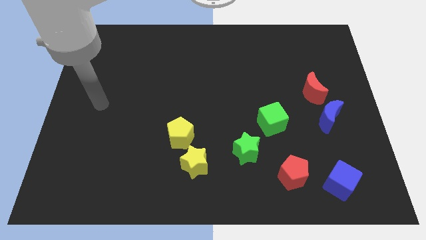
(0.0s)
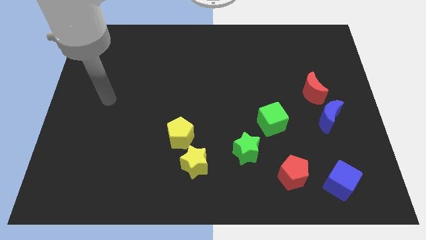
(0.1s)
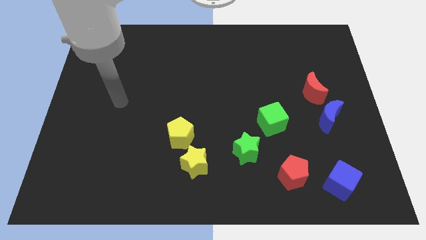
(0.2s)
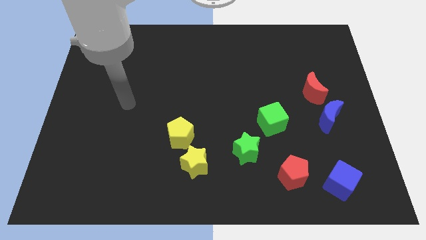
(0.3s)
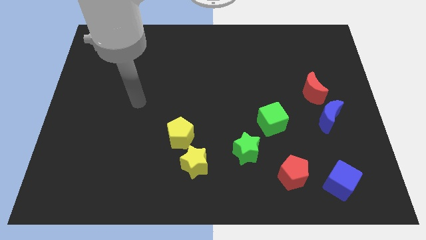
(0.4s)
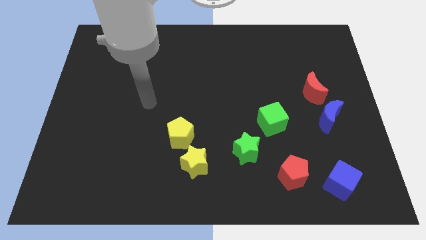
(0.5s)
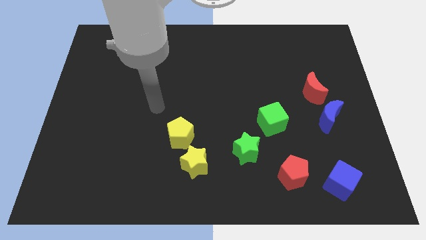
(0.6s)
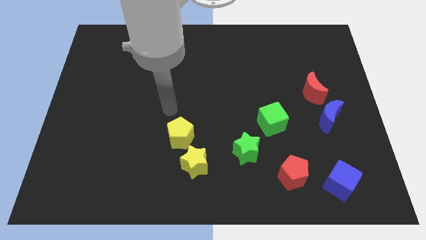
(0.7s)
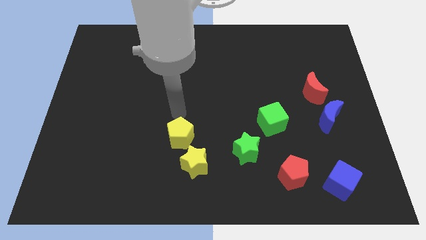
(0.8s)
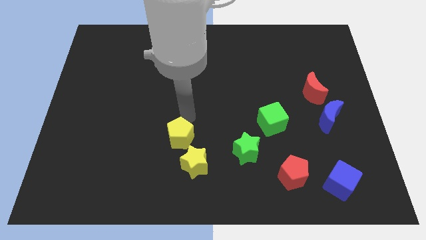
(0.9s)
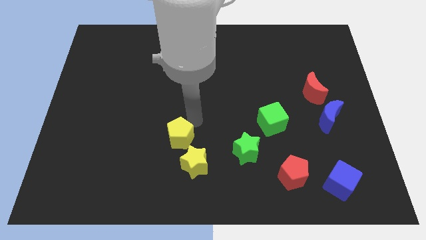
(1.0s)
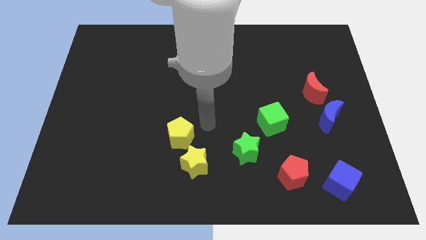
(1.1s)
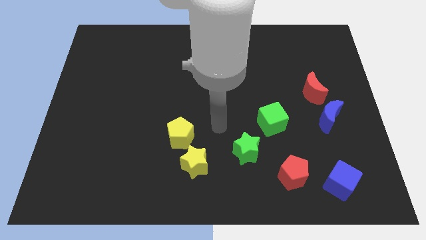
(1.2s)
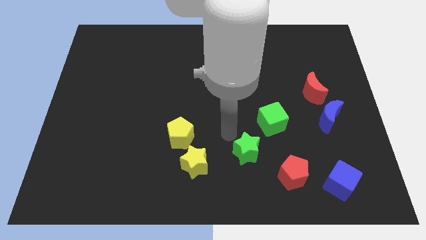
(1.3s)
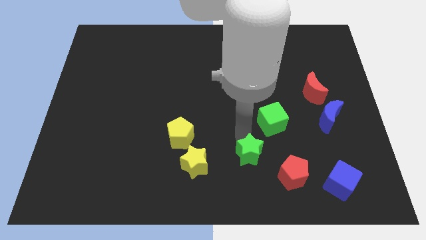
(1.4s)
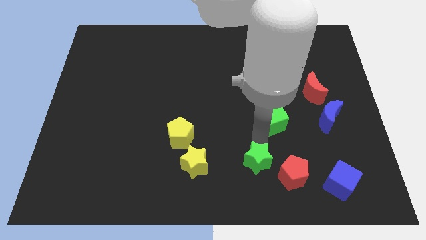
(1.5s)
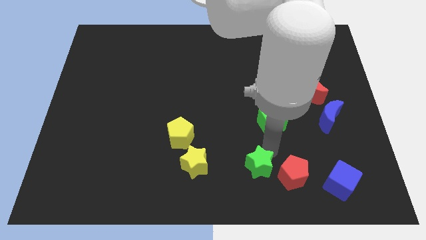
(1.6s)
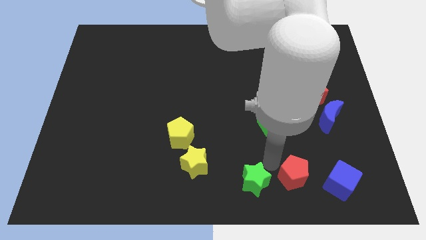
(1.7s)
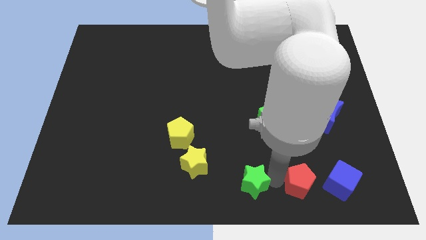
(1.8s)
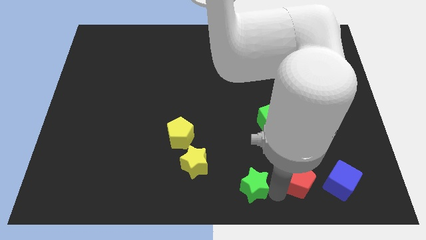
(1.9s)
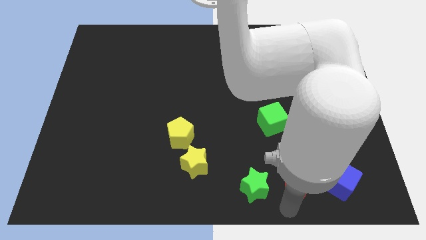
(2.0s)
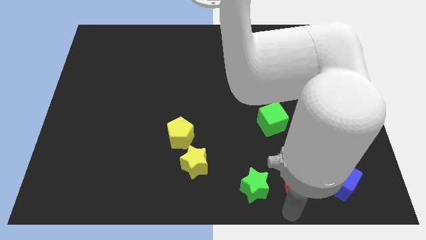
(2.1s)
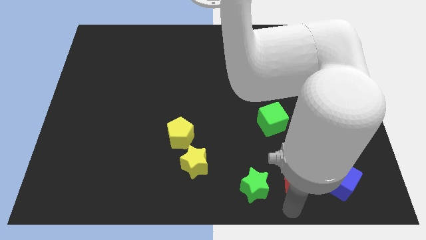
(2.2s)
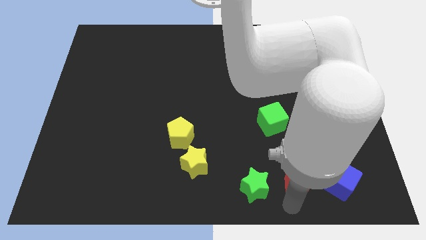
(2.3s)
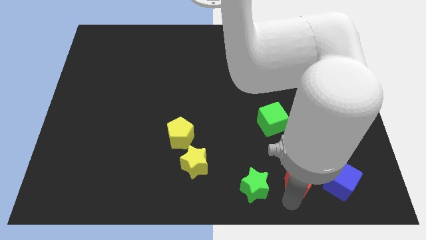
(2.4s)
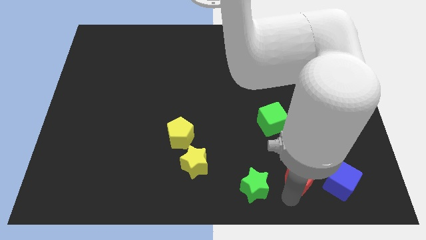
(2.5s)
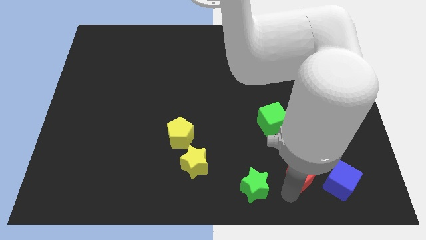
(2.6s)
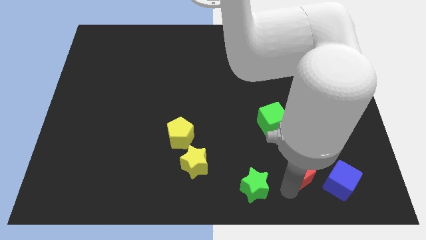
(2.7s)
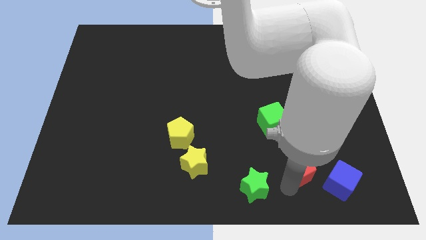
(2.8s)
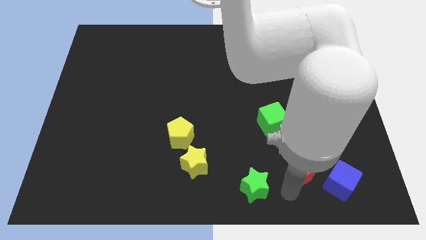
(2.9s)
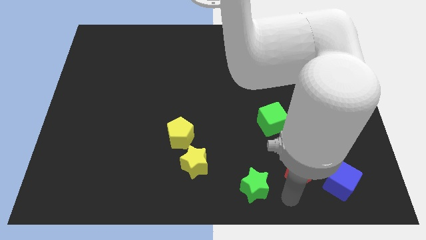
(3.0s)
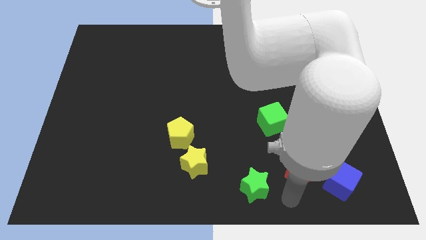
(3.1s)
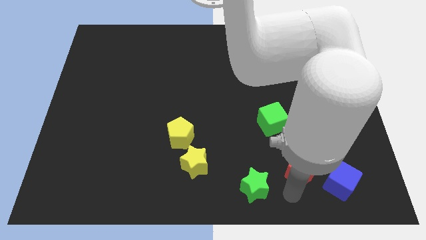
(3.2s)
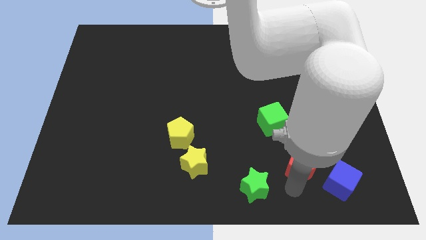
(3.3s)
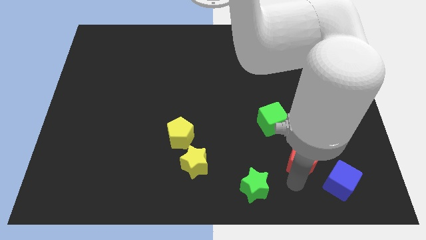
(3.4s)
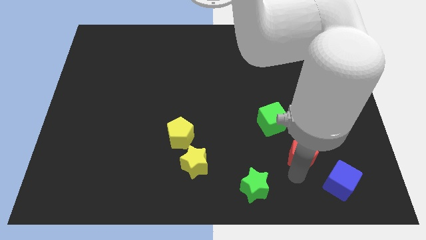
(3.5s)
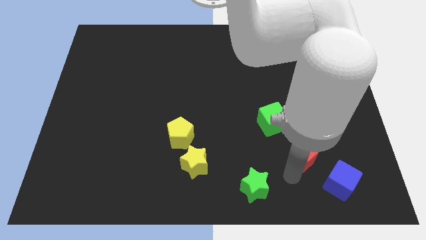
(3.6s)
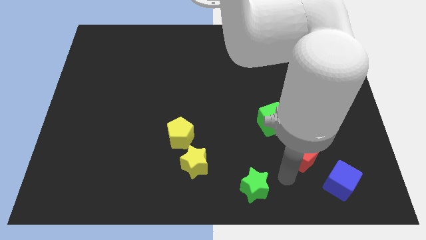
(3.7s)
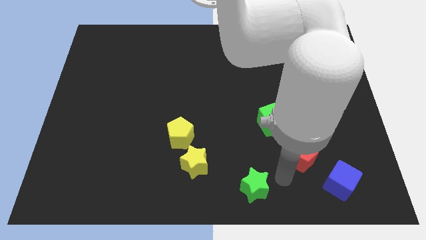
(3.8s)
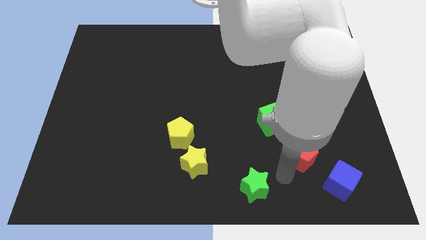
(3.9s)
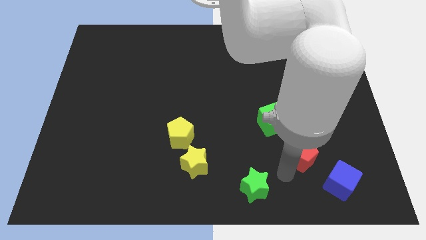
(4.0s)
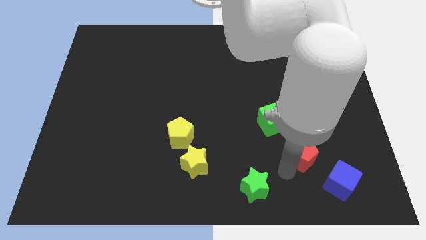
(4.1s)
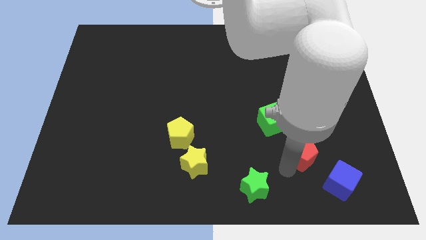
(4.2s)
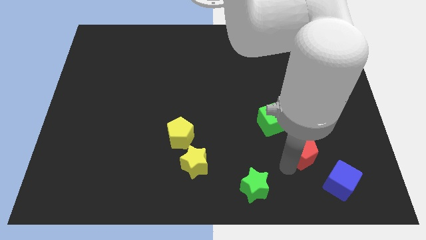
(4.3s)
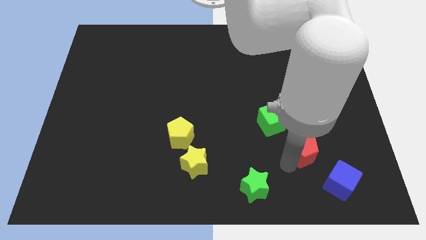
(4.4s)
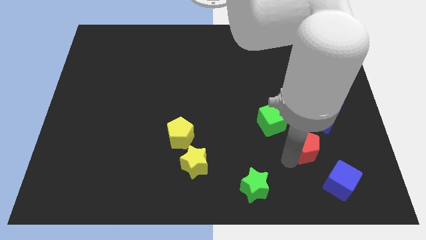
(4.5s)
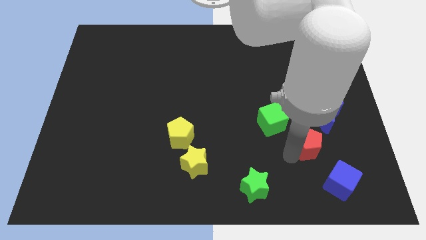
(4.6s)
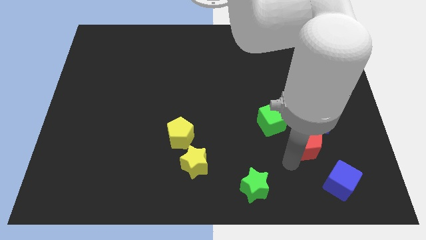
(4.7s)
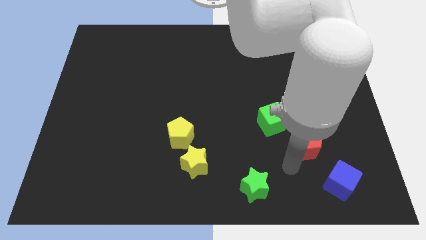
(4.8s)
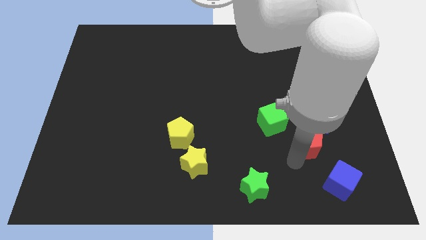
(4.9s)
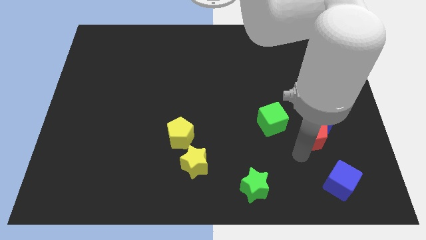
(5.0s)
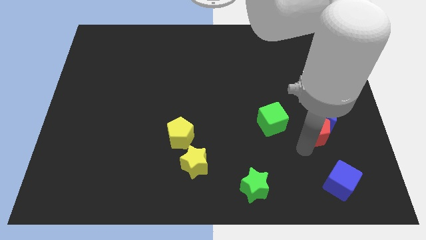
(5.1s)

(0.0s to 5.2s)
move the red pentagon towards the blue moon

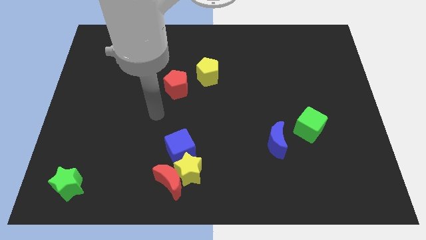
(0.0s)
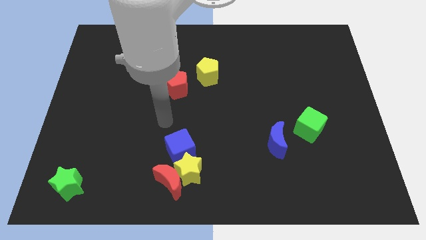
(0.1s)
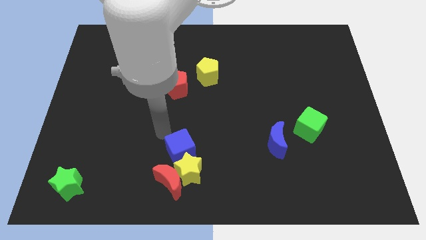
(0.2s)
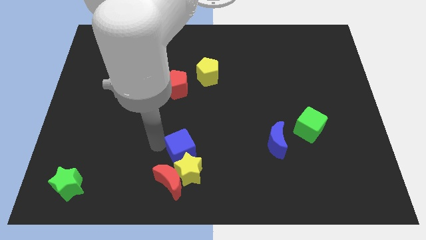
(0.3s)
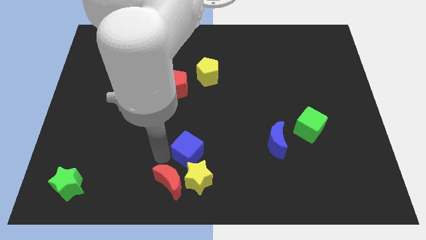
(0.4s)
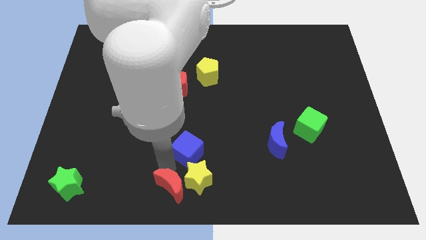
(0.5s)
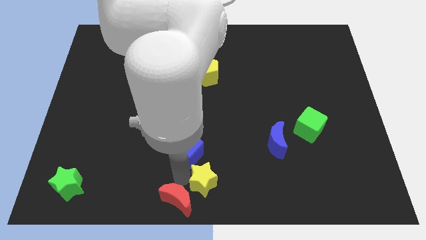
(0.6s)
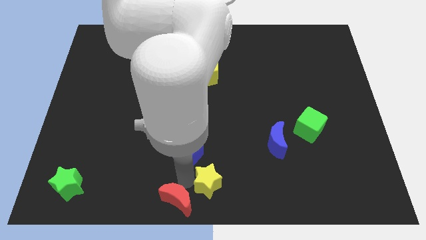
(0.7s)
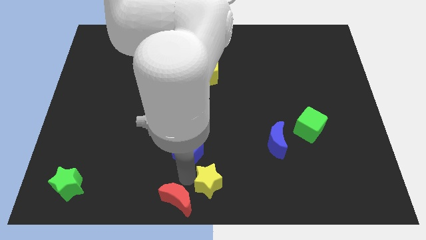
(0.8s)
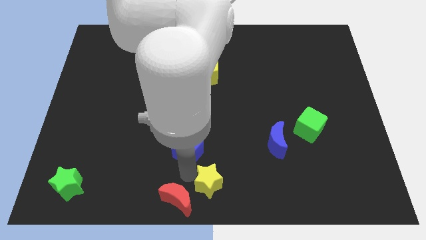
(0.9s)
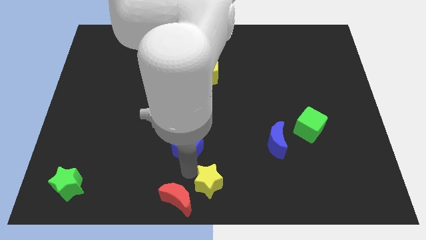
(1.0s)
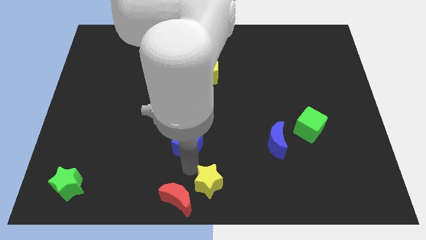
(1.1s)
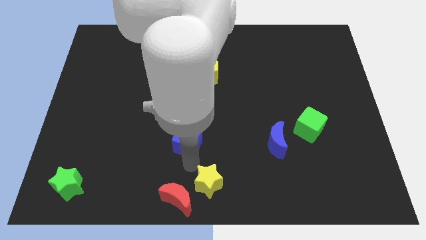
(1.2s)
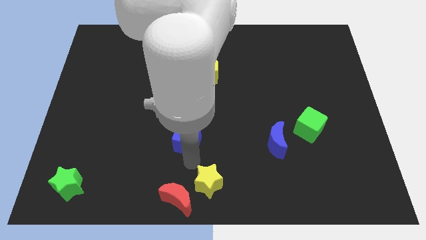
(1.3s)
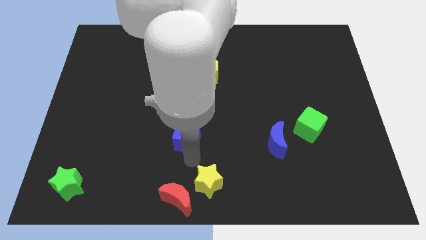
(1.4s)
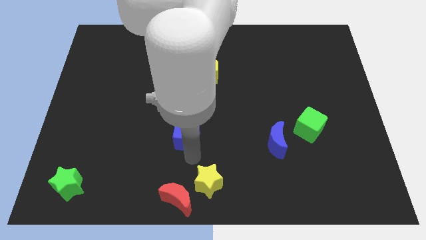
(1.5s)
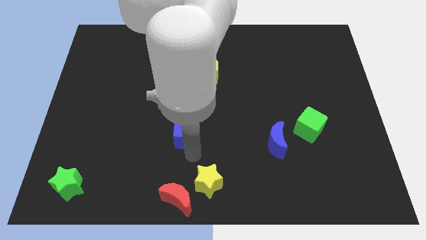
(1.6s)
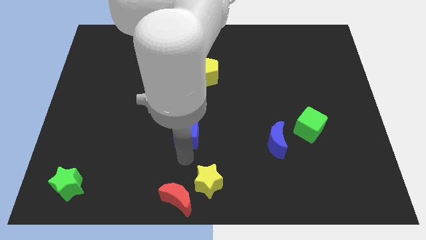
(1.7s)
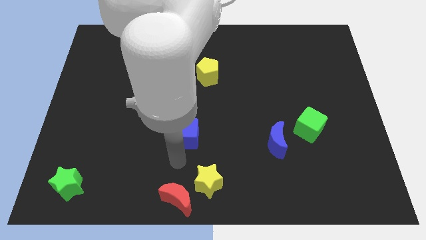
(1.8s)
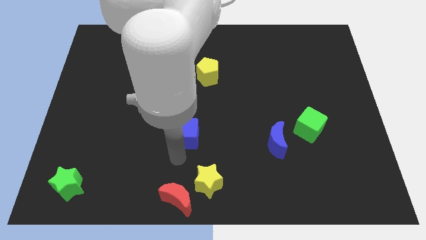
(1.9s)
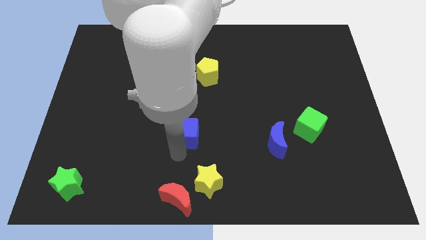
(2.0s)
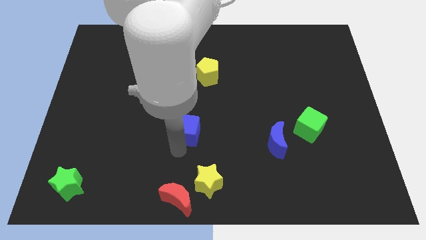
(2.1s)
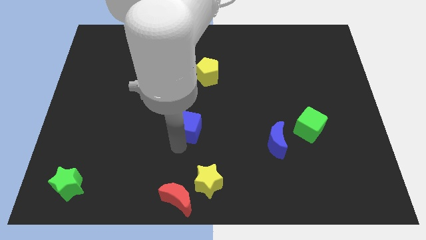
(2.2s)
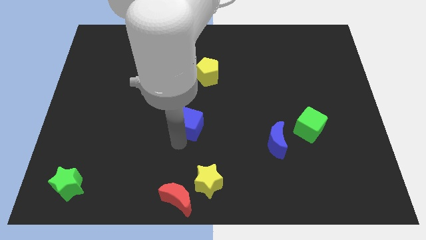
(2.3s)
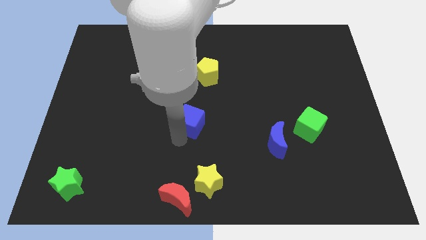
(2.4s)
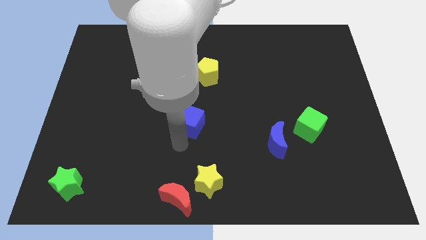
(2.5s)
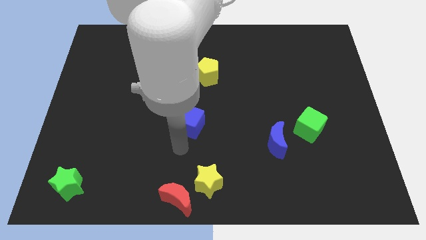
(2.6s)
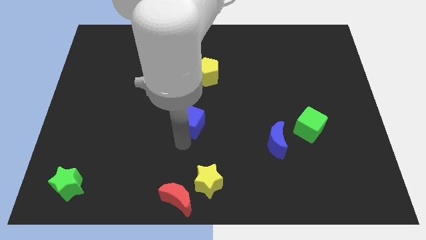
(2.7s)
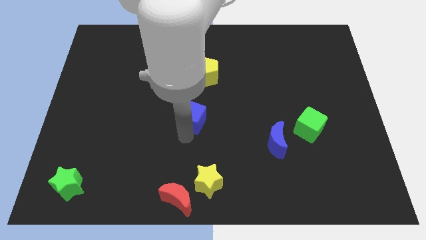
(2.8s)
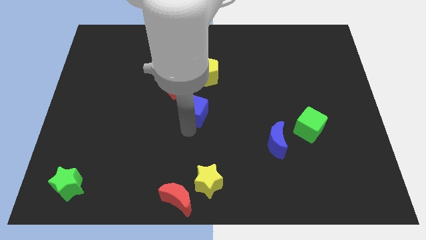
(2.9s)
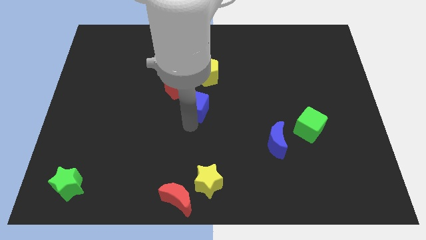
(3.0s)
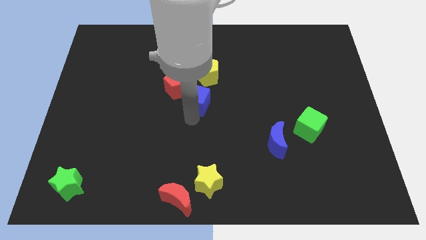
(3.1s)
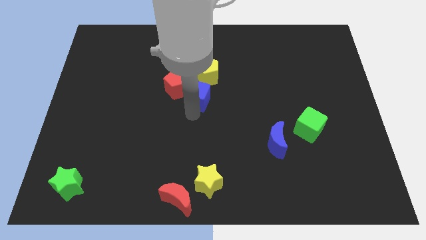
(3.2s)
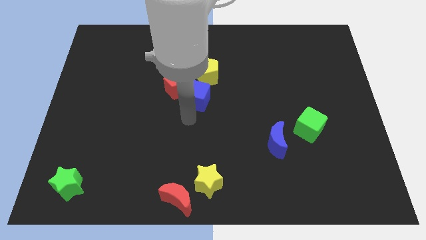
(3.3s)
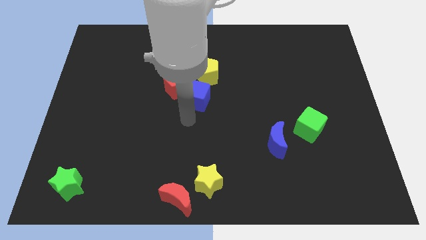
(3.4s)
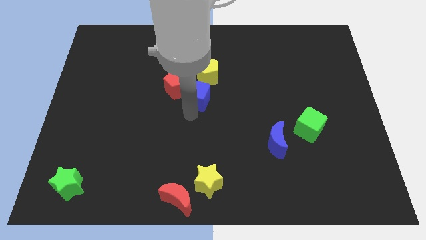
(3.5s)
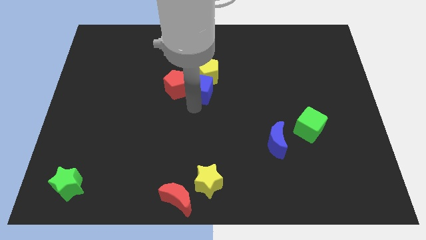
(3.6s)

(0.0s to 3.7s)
move the blue cube towards the yellow pentagon
